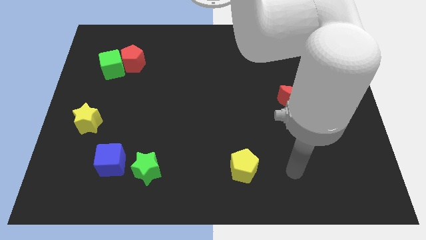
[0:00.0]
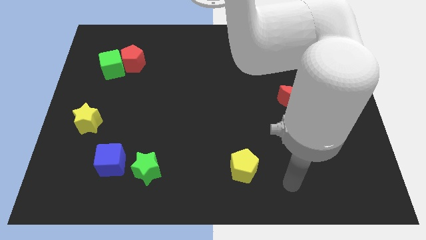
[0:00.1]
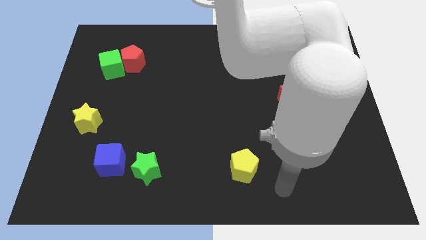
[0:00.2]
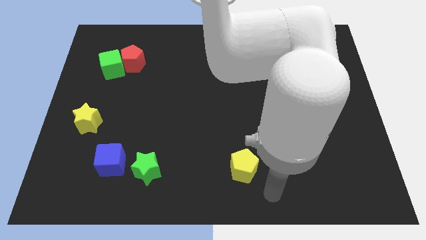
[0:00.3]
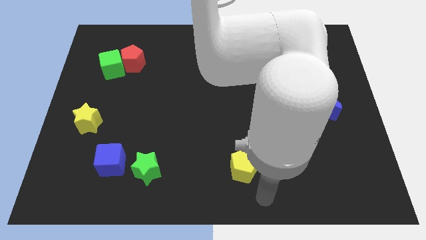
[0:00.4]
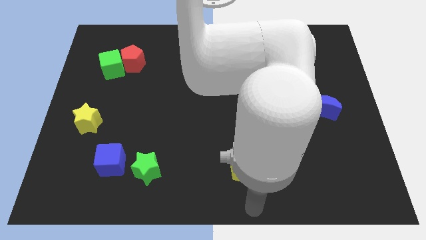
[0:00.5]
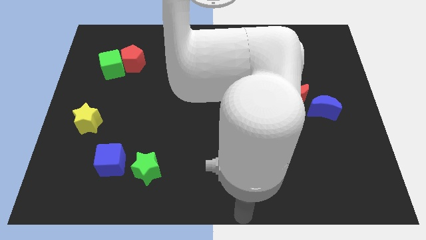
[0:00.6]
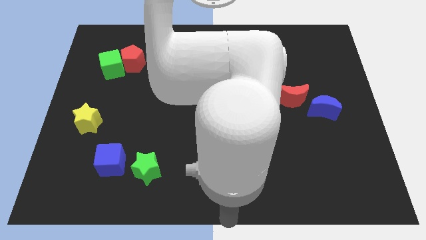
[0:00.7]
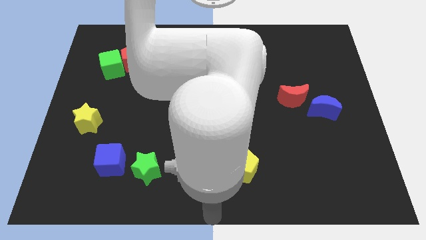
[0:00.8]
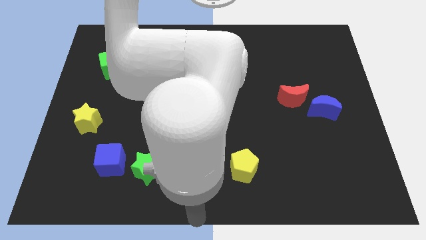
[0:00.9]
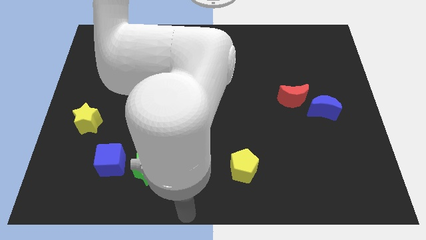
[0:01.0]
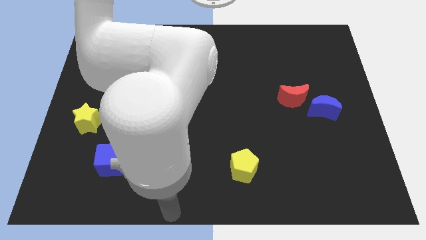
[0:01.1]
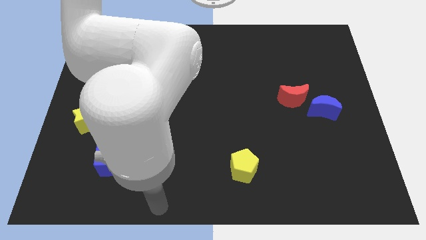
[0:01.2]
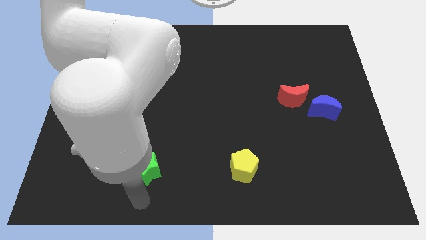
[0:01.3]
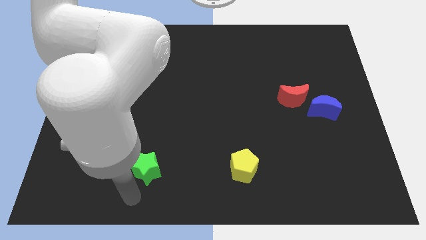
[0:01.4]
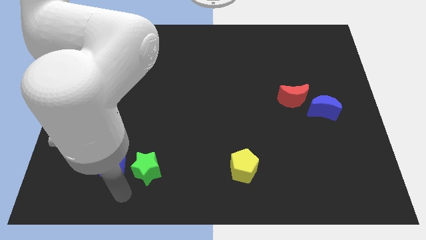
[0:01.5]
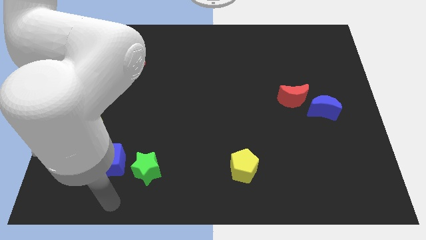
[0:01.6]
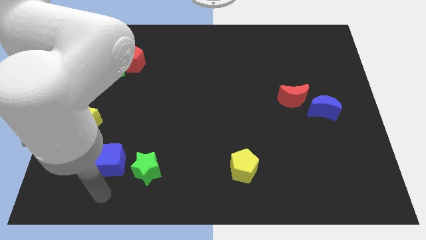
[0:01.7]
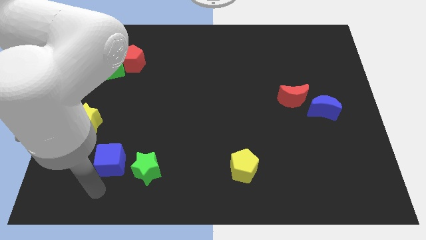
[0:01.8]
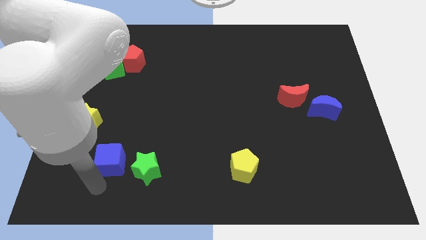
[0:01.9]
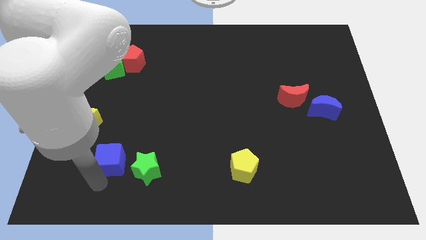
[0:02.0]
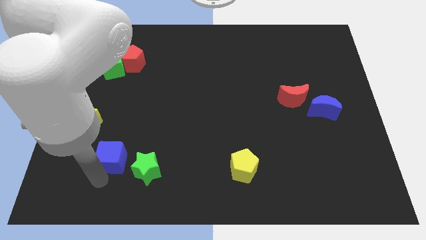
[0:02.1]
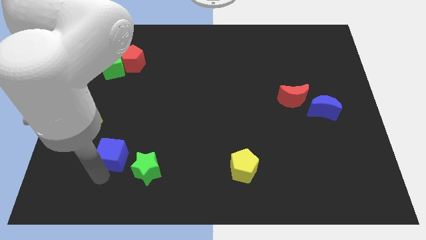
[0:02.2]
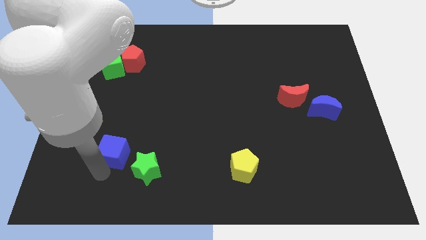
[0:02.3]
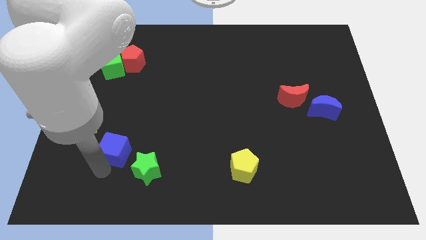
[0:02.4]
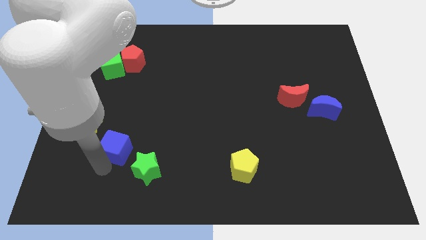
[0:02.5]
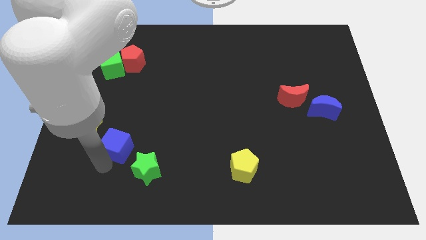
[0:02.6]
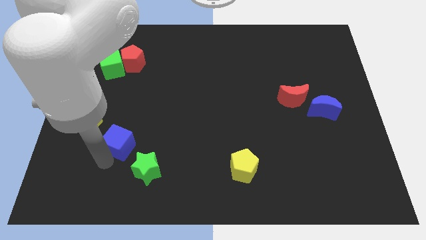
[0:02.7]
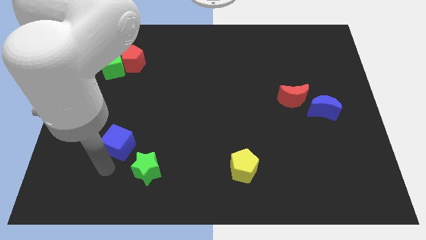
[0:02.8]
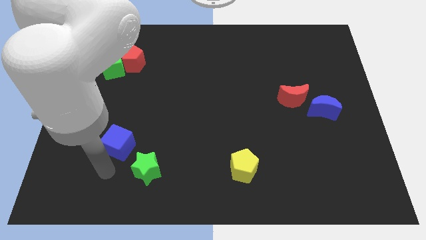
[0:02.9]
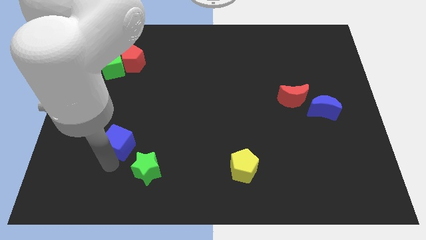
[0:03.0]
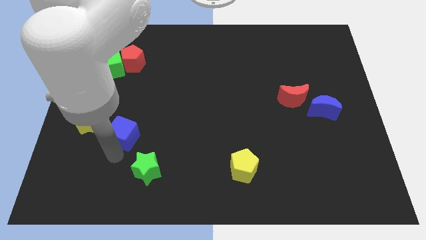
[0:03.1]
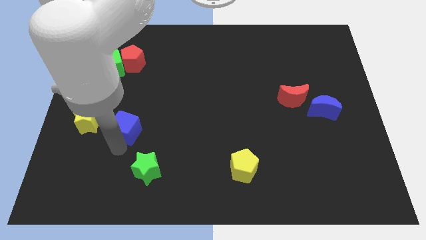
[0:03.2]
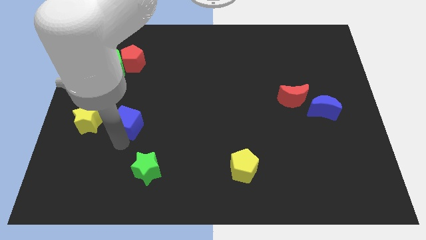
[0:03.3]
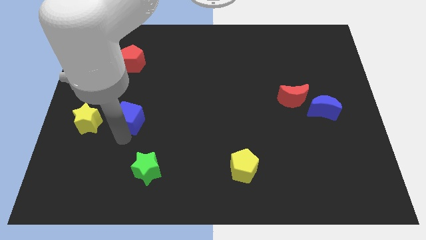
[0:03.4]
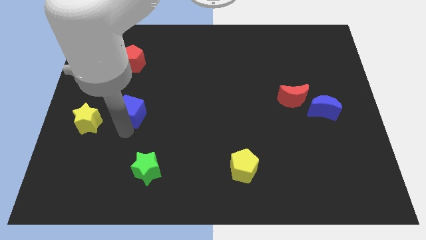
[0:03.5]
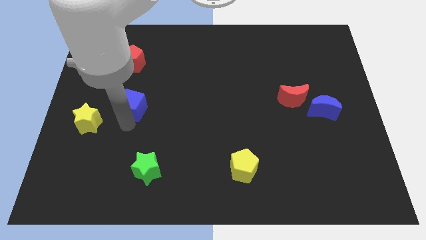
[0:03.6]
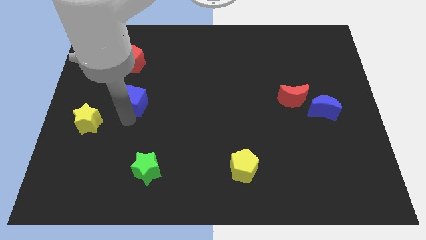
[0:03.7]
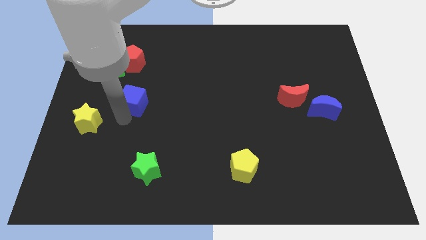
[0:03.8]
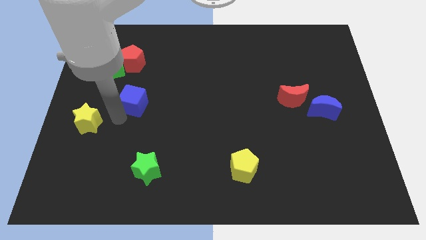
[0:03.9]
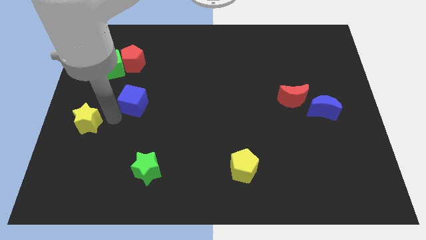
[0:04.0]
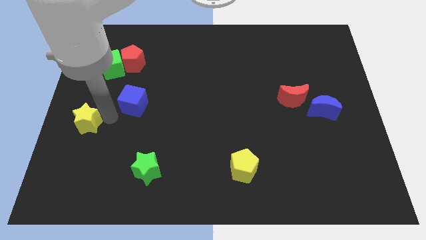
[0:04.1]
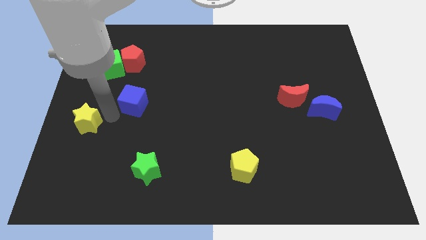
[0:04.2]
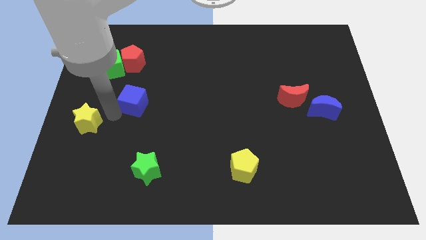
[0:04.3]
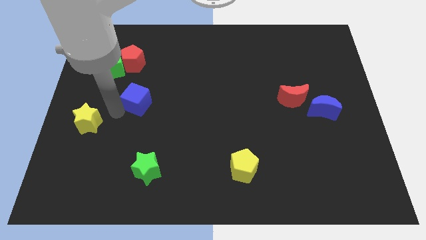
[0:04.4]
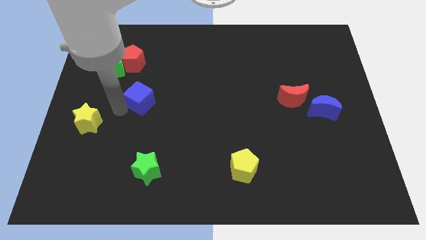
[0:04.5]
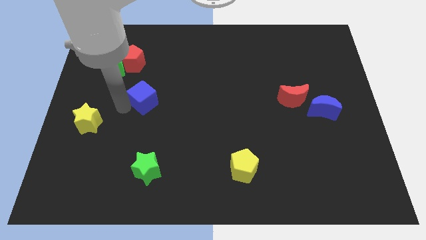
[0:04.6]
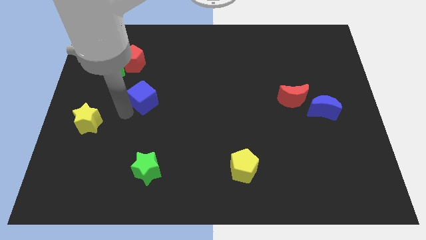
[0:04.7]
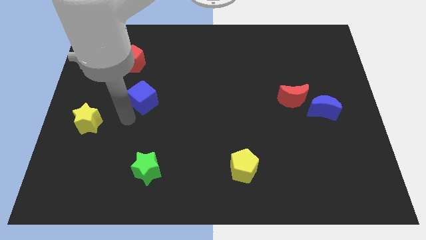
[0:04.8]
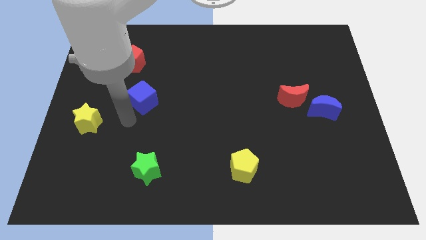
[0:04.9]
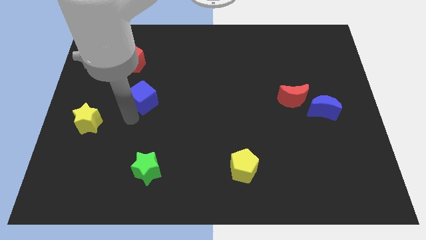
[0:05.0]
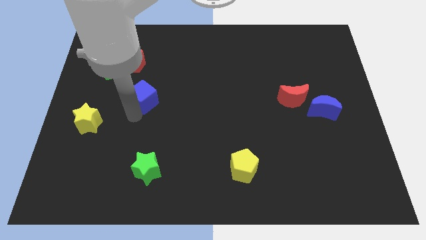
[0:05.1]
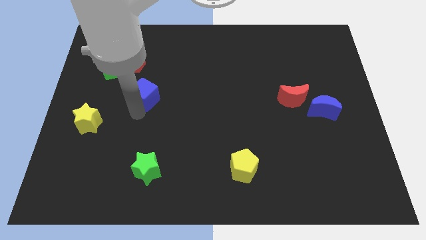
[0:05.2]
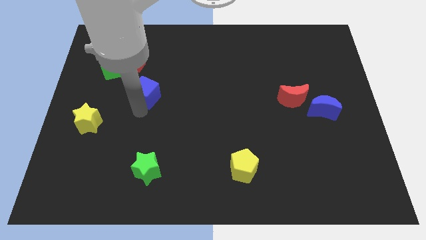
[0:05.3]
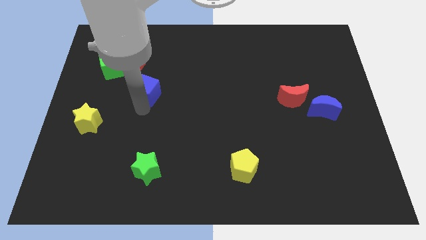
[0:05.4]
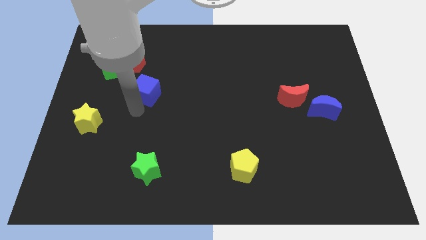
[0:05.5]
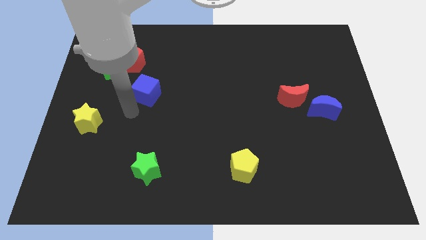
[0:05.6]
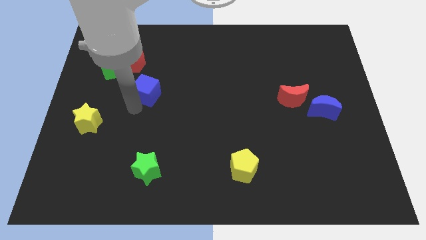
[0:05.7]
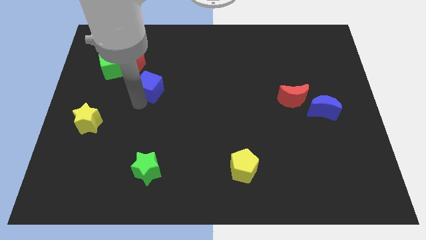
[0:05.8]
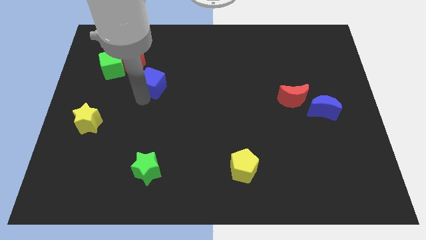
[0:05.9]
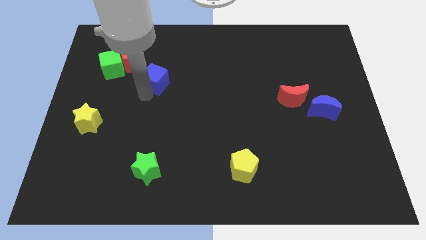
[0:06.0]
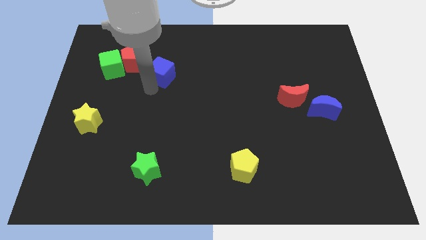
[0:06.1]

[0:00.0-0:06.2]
push the blue cube just right of the red pentagon

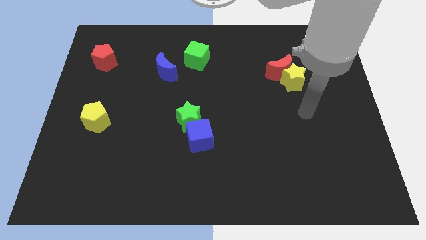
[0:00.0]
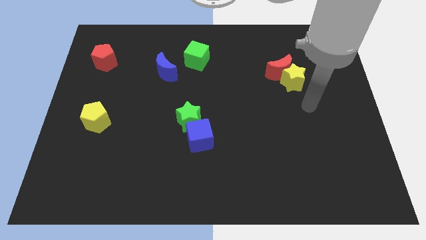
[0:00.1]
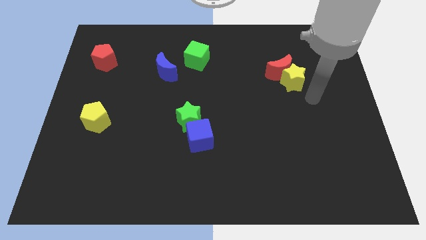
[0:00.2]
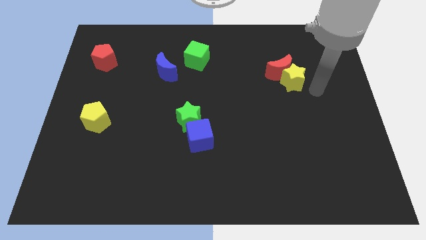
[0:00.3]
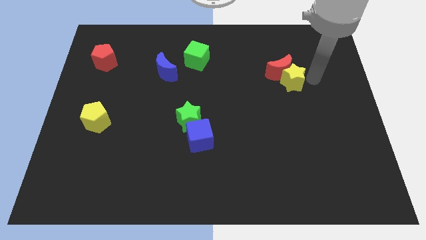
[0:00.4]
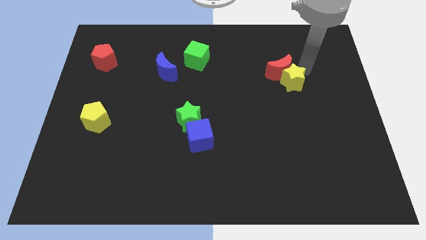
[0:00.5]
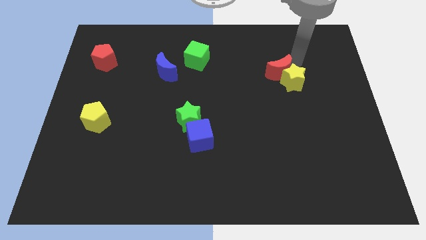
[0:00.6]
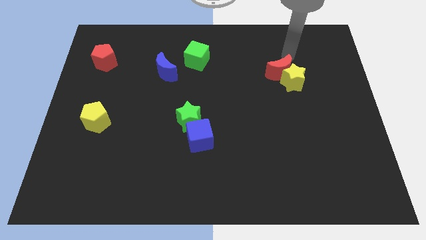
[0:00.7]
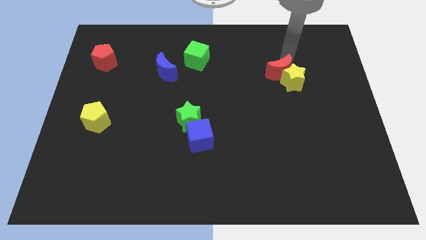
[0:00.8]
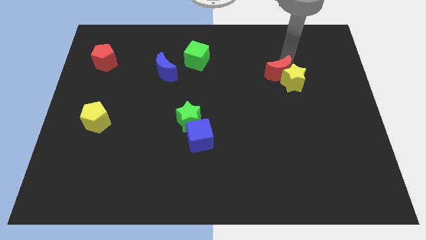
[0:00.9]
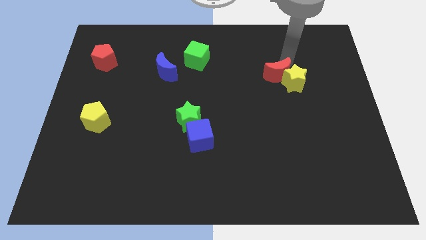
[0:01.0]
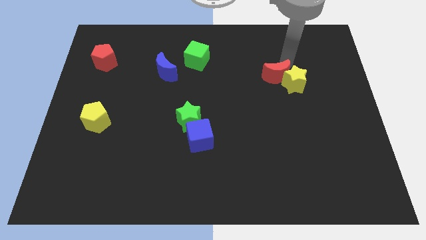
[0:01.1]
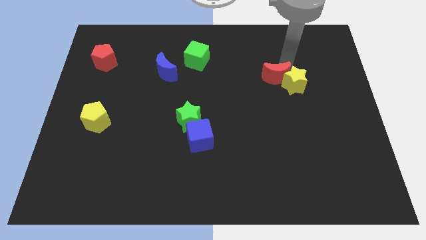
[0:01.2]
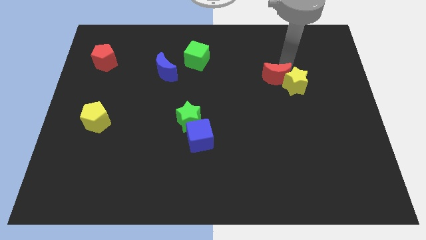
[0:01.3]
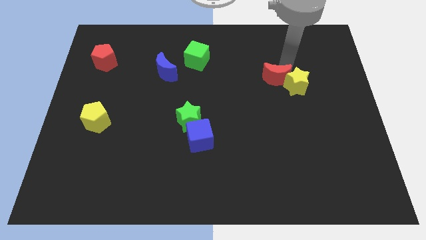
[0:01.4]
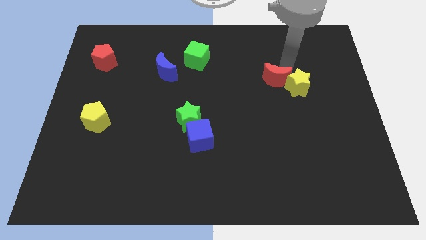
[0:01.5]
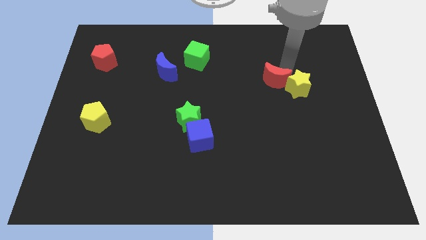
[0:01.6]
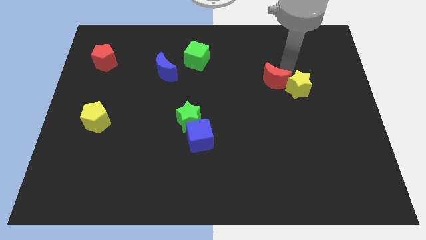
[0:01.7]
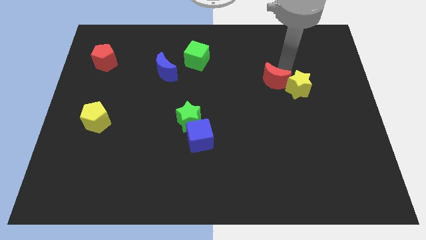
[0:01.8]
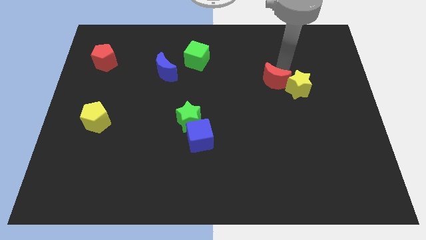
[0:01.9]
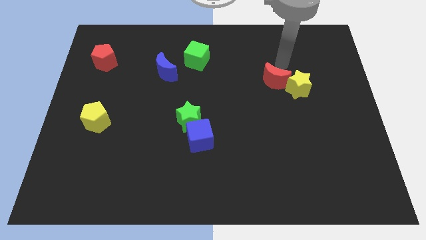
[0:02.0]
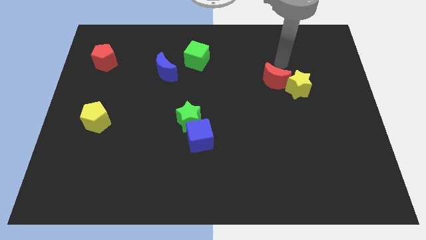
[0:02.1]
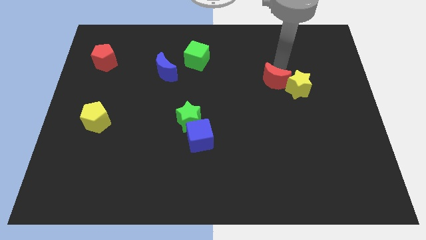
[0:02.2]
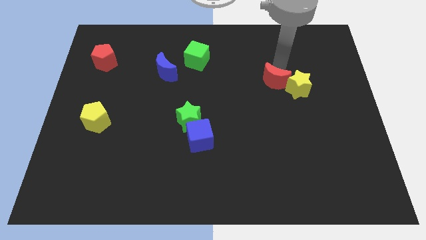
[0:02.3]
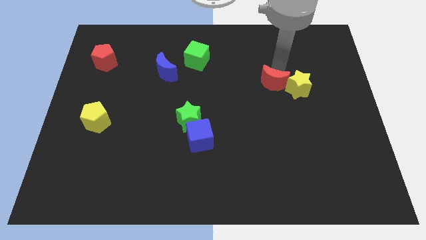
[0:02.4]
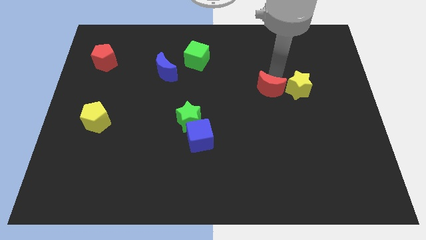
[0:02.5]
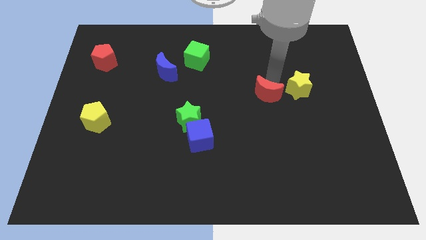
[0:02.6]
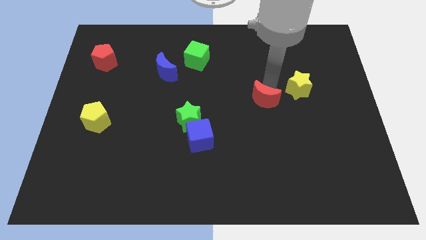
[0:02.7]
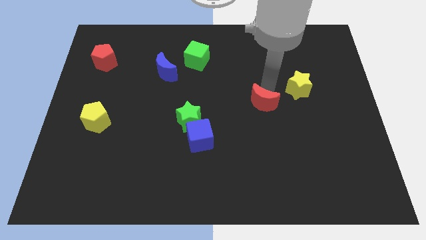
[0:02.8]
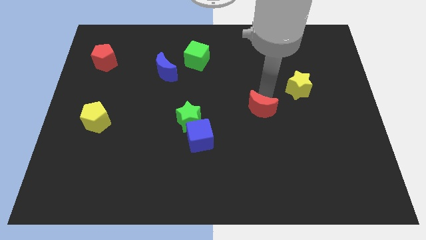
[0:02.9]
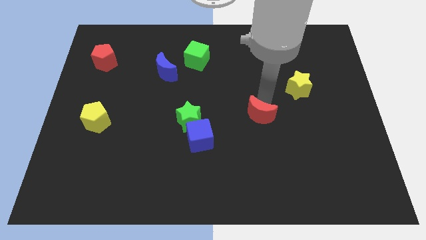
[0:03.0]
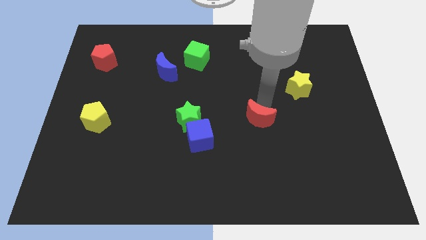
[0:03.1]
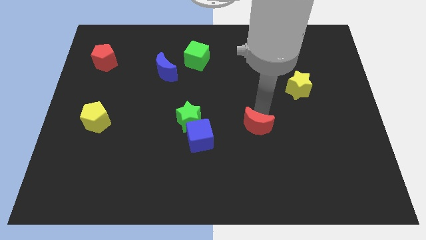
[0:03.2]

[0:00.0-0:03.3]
put the red moon just right of the blue cube
